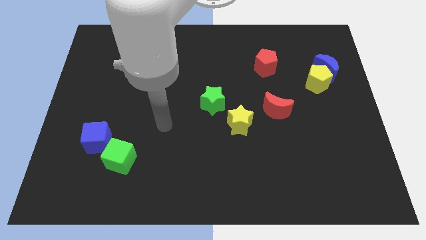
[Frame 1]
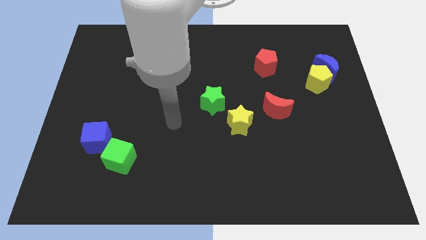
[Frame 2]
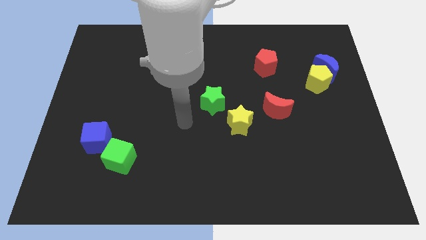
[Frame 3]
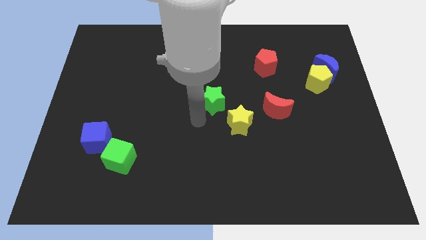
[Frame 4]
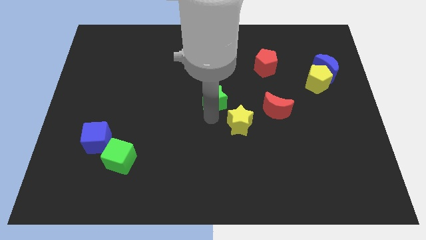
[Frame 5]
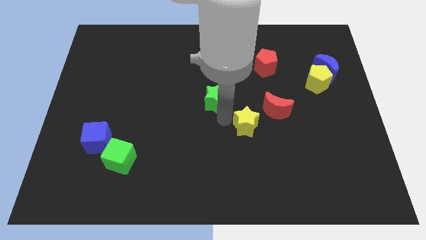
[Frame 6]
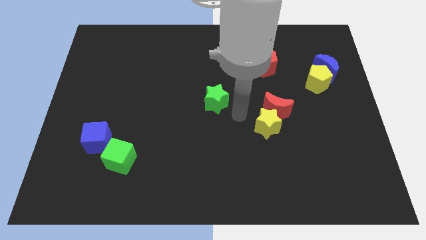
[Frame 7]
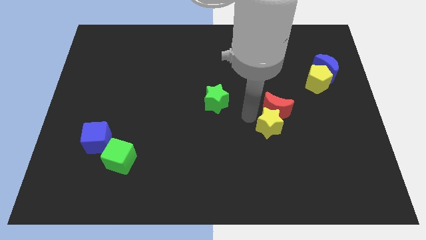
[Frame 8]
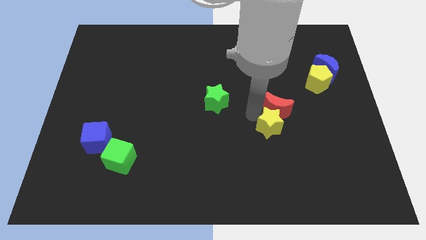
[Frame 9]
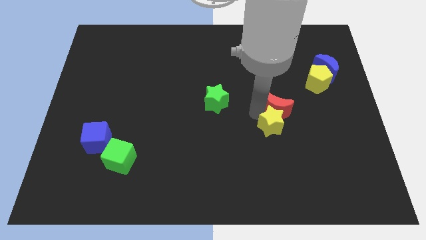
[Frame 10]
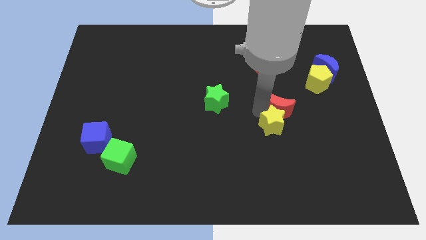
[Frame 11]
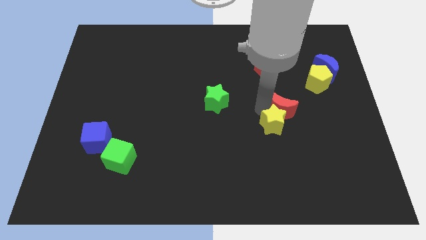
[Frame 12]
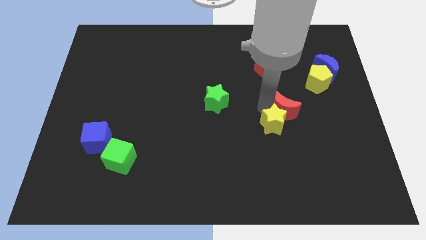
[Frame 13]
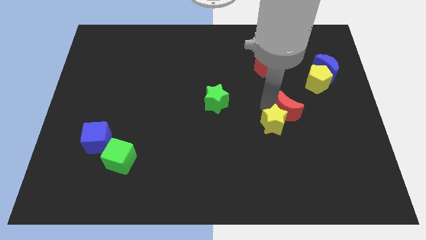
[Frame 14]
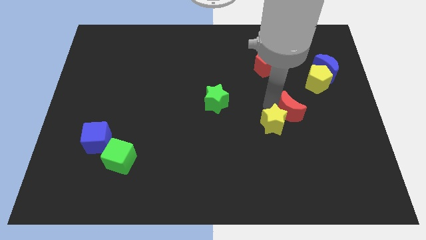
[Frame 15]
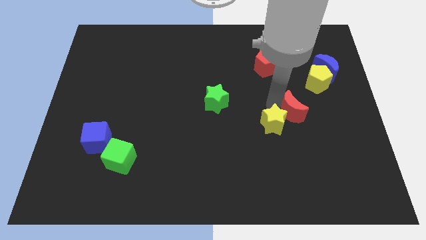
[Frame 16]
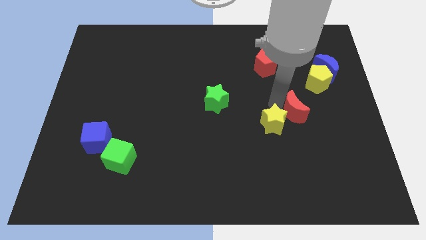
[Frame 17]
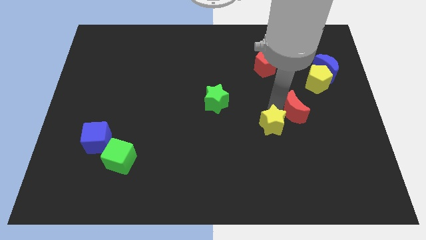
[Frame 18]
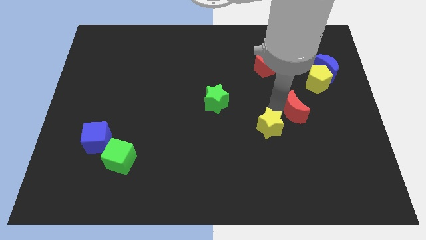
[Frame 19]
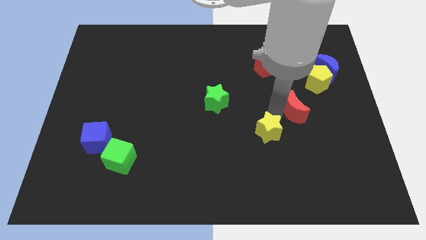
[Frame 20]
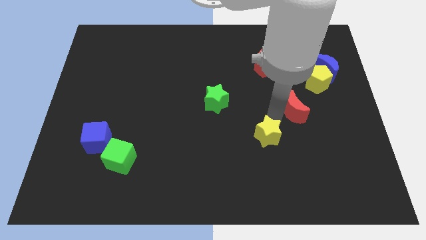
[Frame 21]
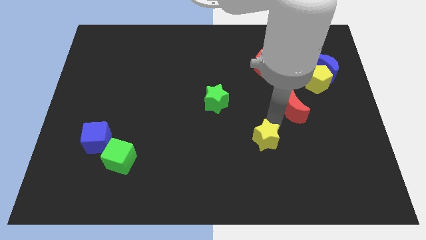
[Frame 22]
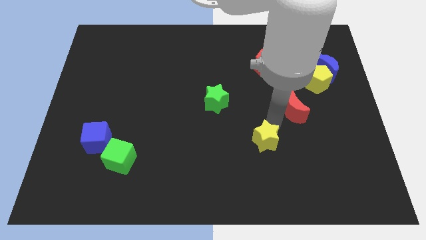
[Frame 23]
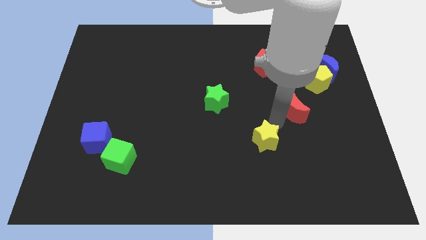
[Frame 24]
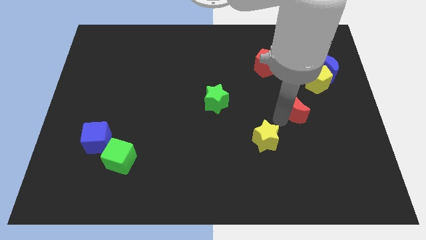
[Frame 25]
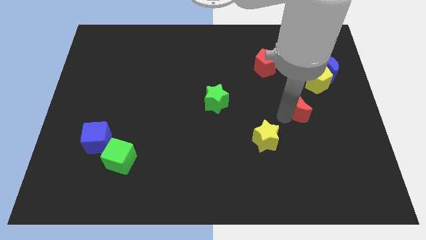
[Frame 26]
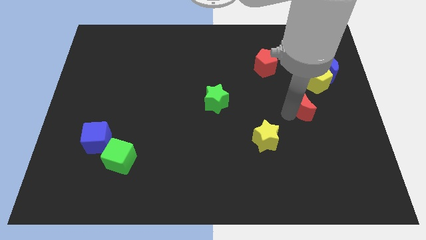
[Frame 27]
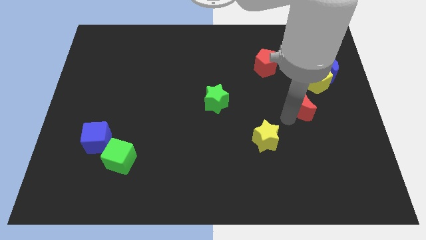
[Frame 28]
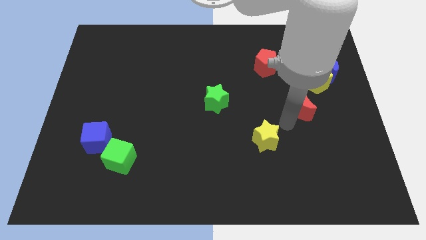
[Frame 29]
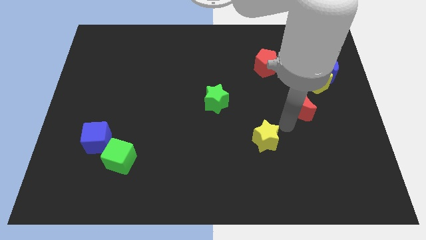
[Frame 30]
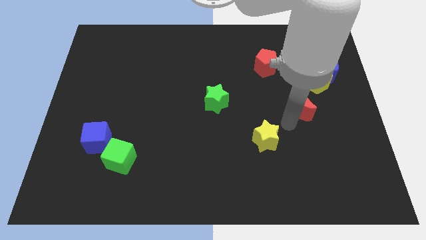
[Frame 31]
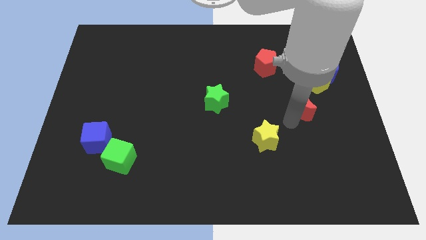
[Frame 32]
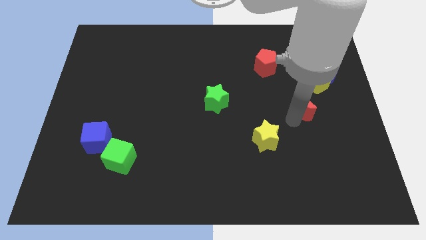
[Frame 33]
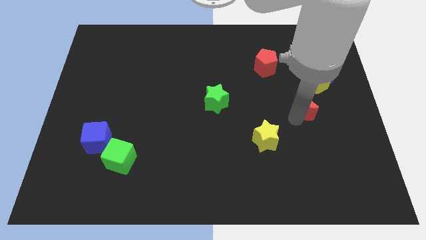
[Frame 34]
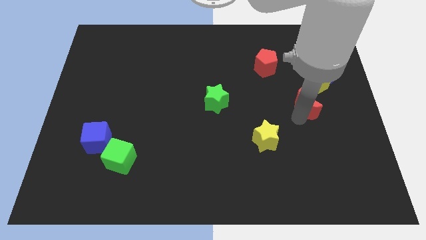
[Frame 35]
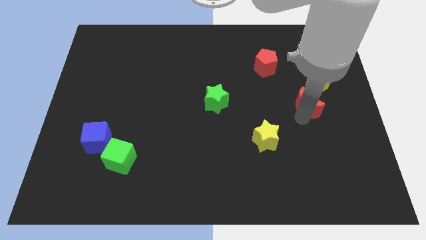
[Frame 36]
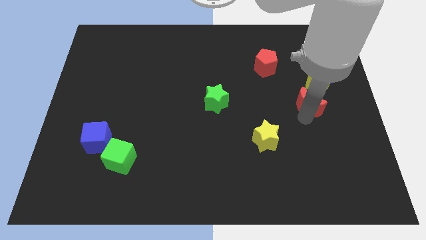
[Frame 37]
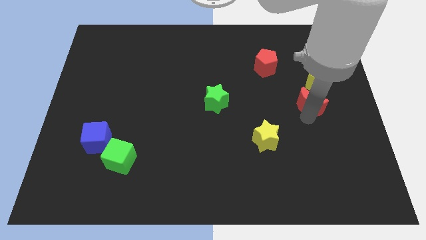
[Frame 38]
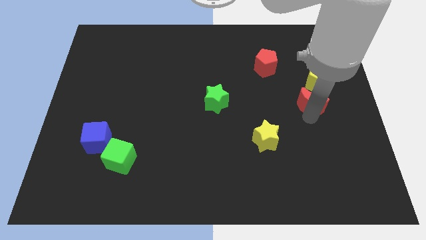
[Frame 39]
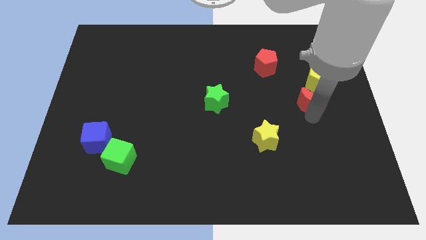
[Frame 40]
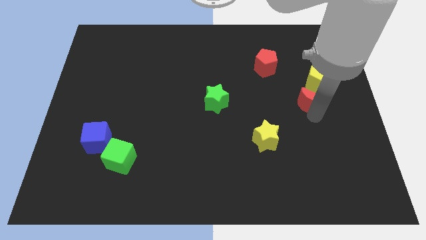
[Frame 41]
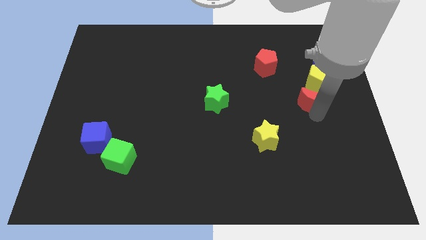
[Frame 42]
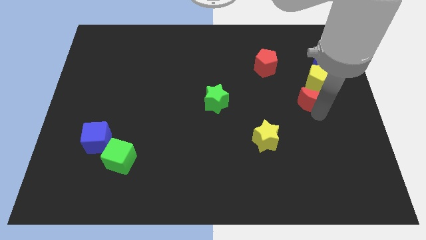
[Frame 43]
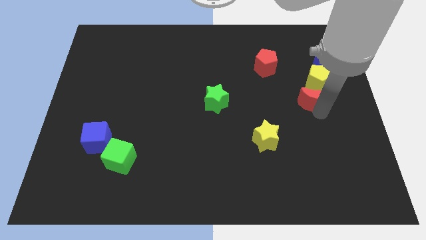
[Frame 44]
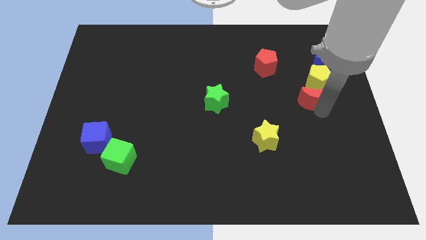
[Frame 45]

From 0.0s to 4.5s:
push the red moon close to the yellow pentagon

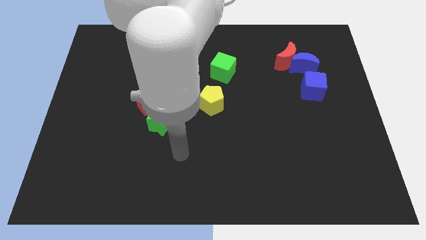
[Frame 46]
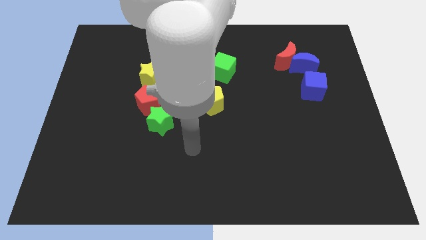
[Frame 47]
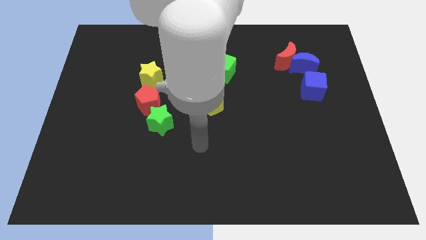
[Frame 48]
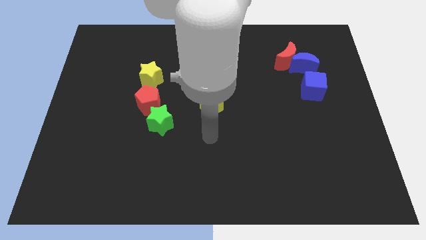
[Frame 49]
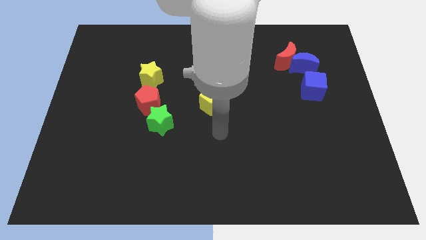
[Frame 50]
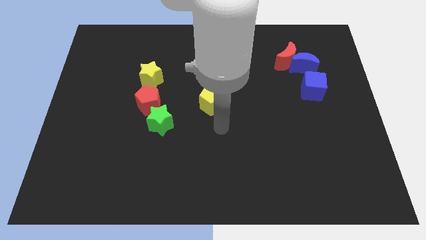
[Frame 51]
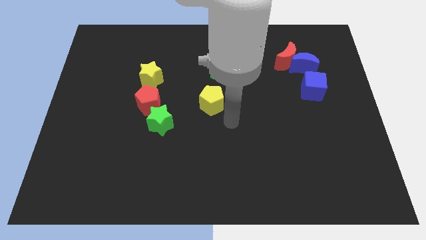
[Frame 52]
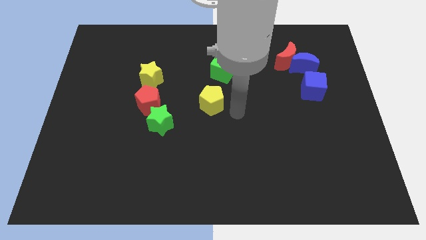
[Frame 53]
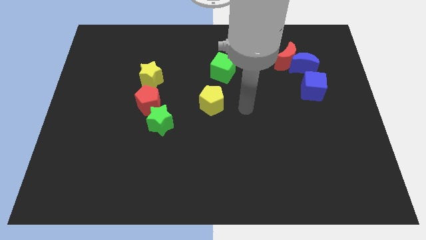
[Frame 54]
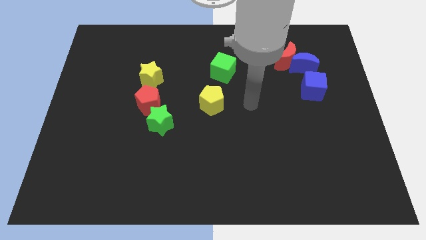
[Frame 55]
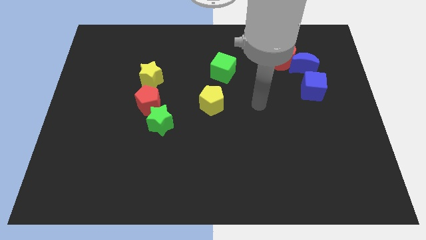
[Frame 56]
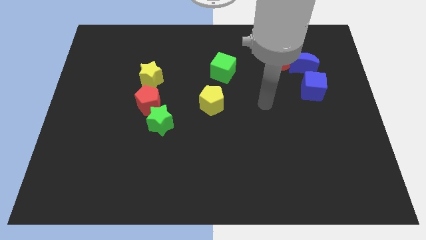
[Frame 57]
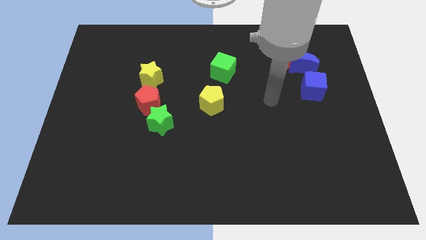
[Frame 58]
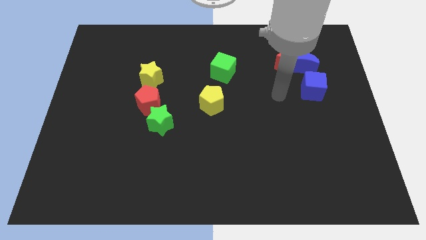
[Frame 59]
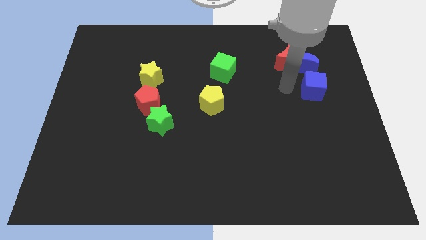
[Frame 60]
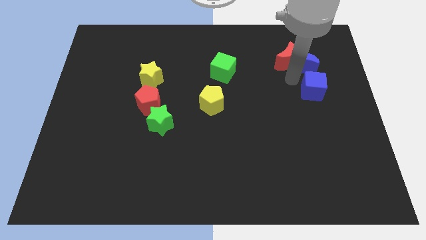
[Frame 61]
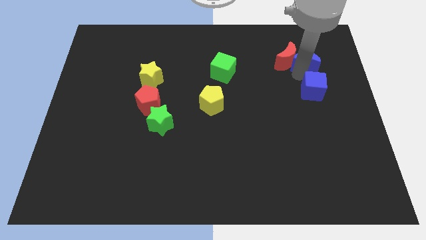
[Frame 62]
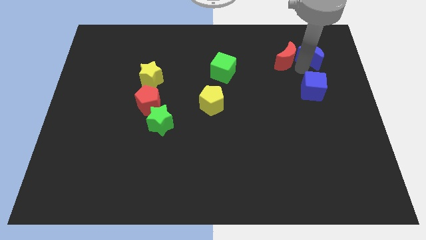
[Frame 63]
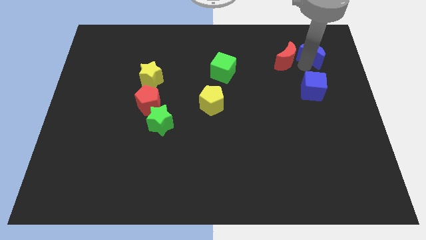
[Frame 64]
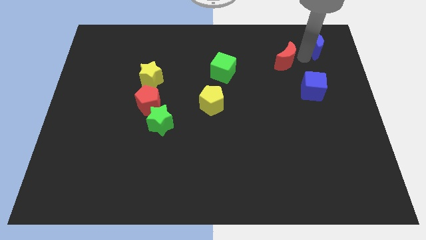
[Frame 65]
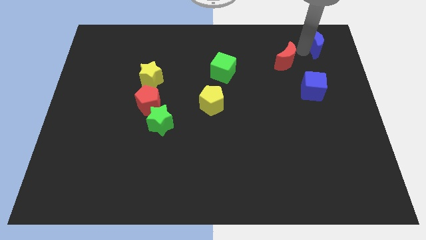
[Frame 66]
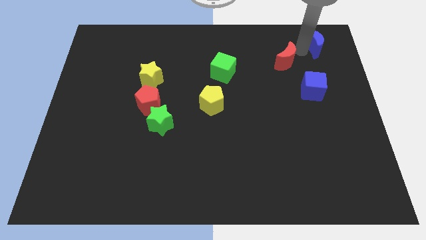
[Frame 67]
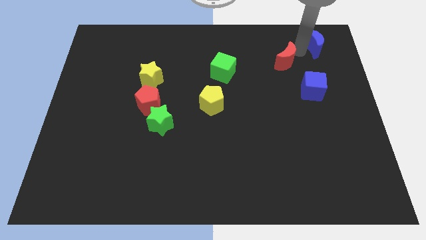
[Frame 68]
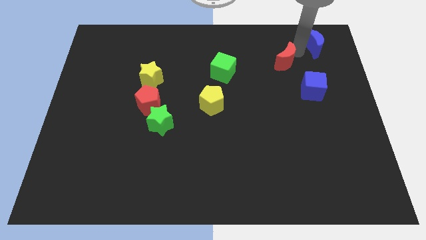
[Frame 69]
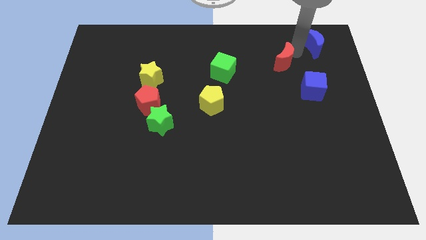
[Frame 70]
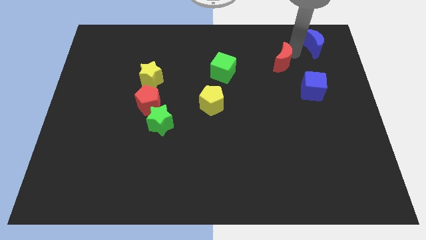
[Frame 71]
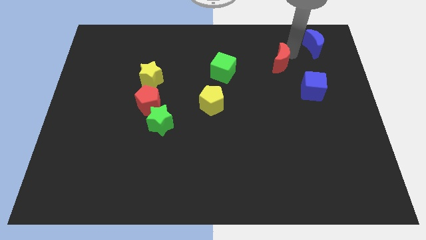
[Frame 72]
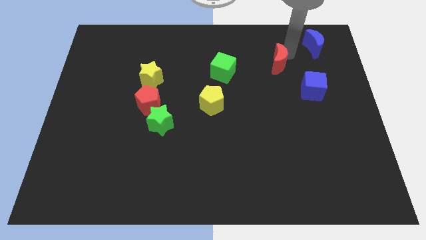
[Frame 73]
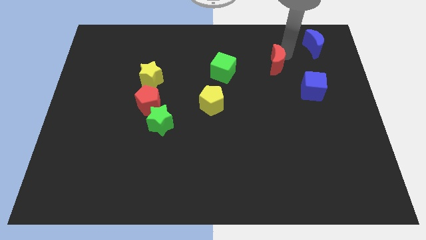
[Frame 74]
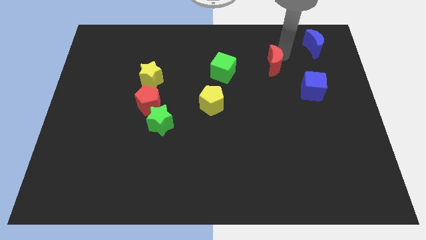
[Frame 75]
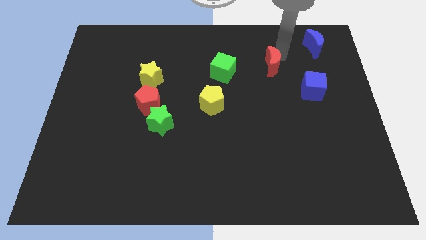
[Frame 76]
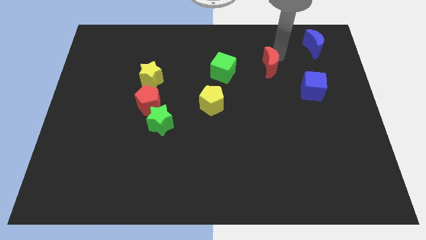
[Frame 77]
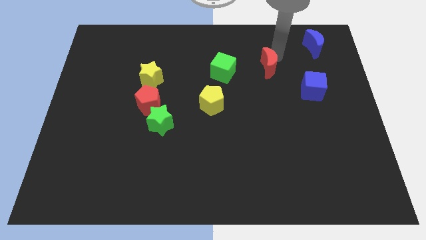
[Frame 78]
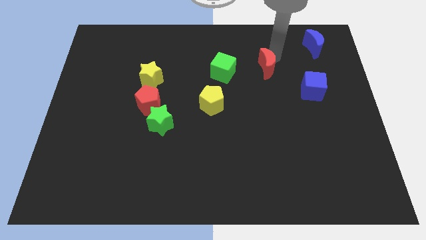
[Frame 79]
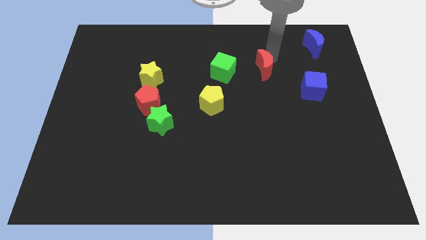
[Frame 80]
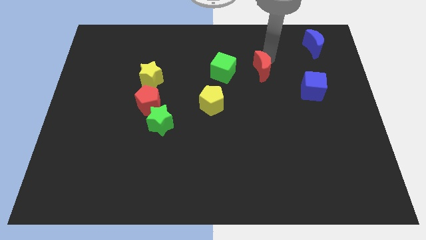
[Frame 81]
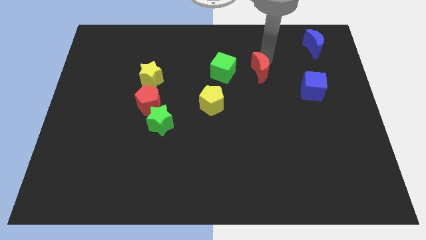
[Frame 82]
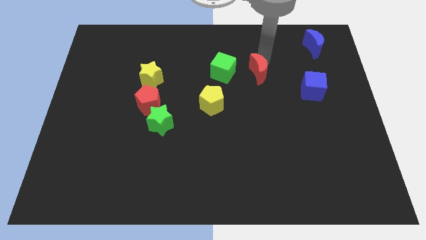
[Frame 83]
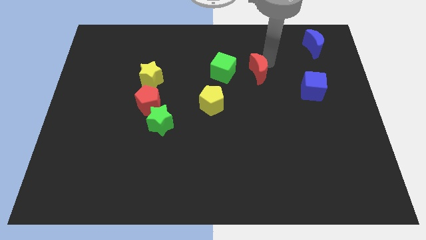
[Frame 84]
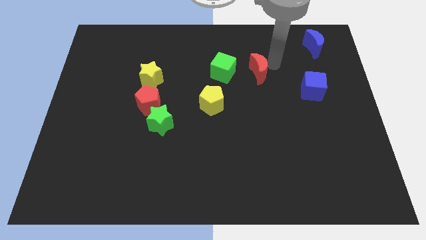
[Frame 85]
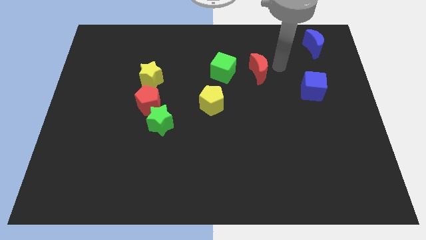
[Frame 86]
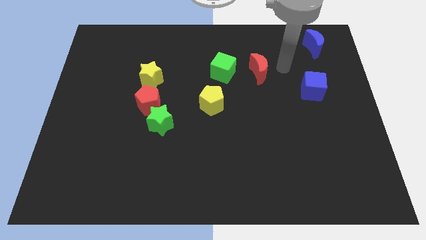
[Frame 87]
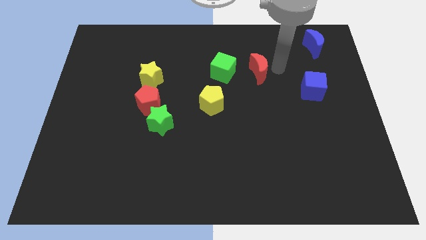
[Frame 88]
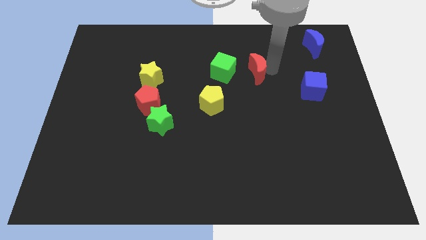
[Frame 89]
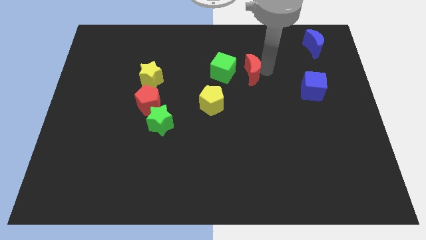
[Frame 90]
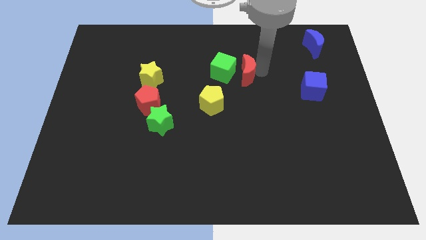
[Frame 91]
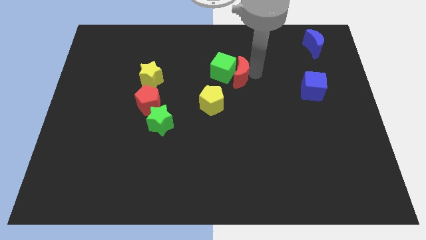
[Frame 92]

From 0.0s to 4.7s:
push the red moon towards the green cube
